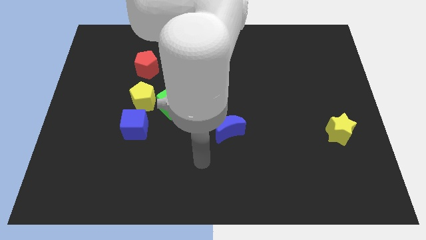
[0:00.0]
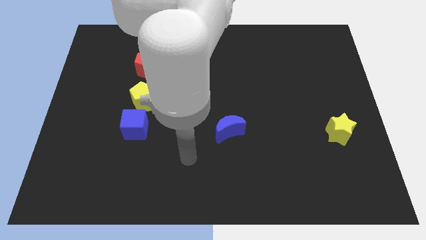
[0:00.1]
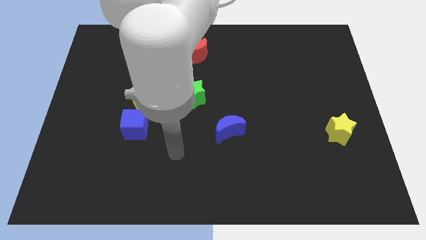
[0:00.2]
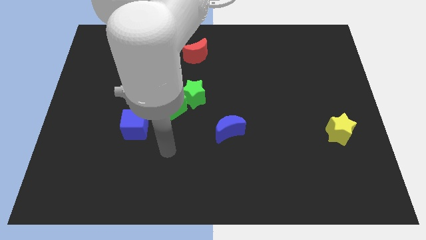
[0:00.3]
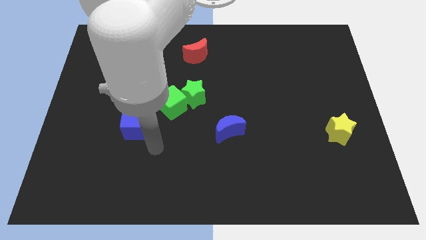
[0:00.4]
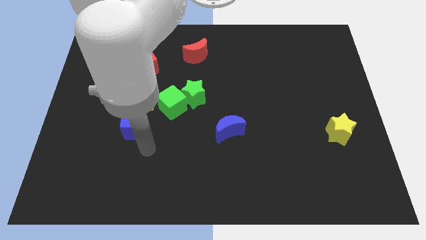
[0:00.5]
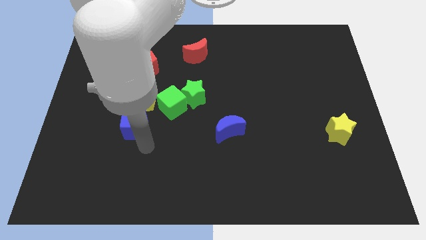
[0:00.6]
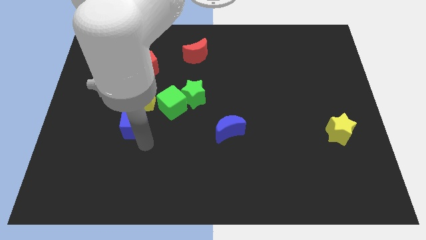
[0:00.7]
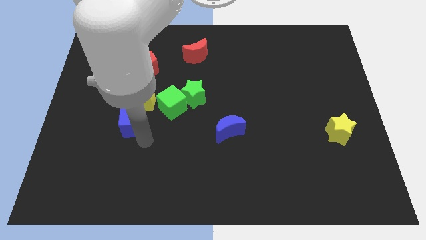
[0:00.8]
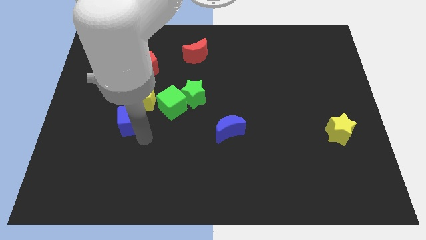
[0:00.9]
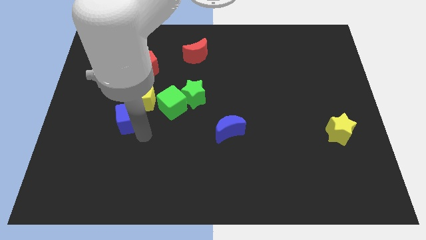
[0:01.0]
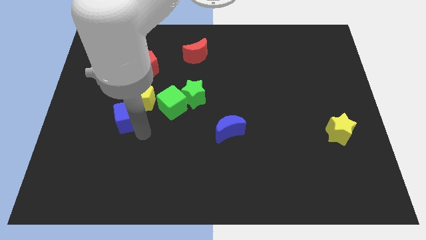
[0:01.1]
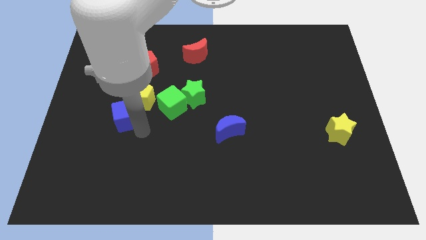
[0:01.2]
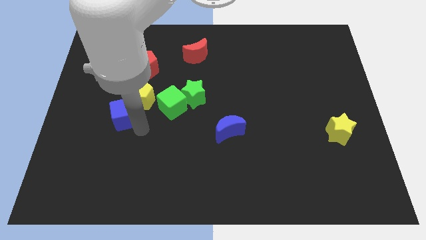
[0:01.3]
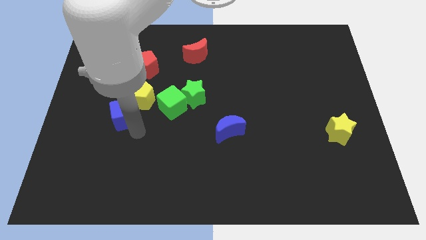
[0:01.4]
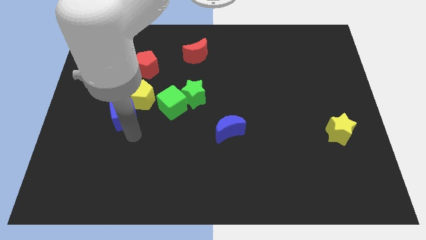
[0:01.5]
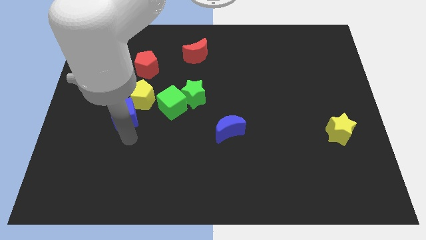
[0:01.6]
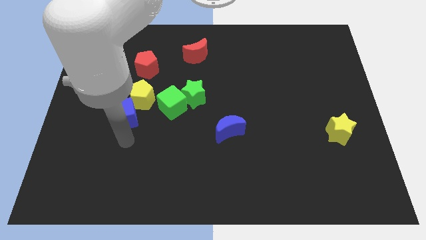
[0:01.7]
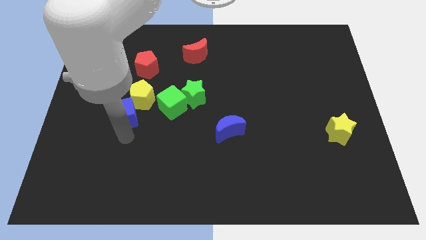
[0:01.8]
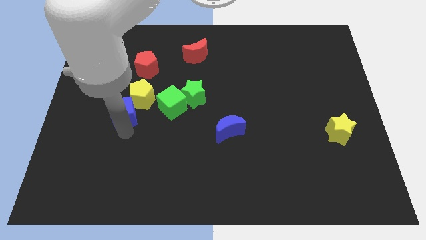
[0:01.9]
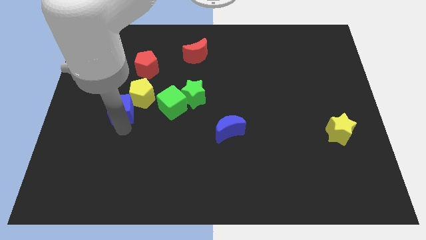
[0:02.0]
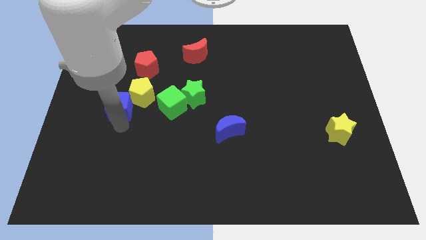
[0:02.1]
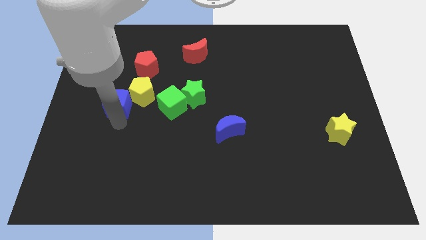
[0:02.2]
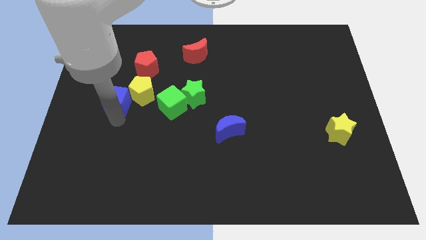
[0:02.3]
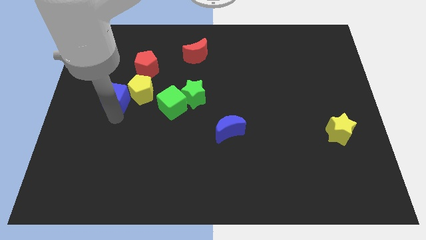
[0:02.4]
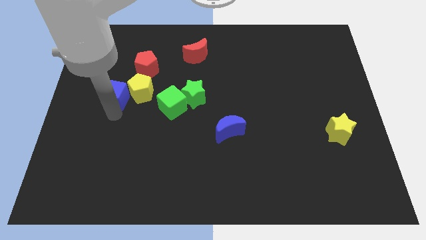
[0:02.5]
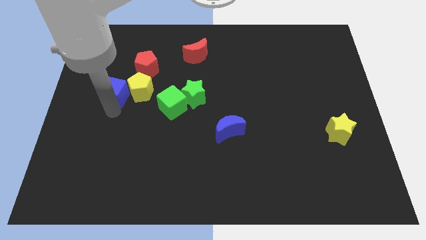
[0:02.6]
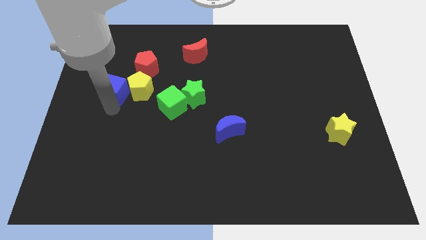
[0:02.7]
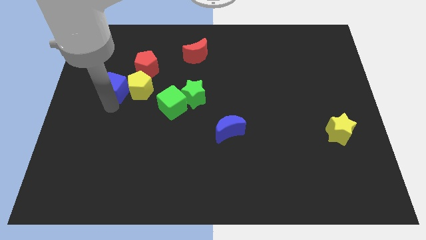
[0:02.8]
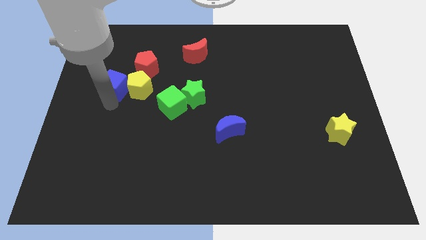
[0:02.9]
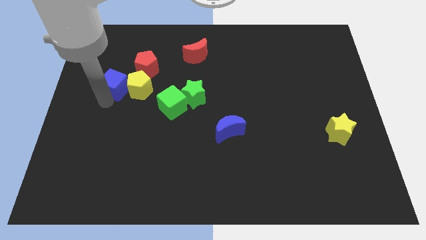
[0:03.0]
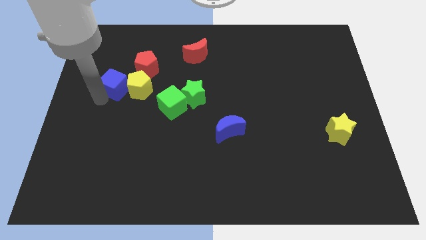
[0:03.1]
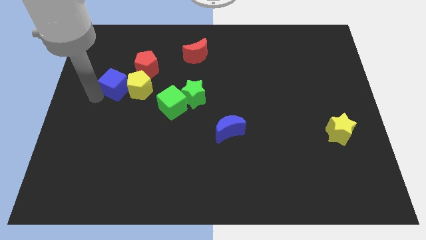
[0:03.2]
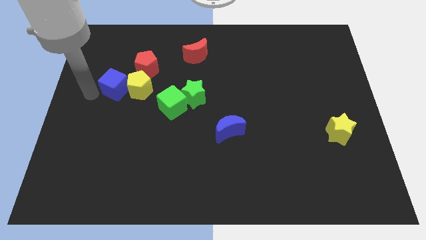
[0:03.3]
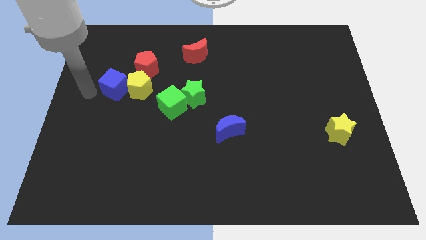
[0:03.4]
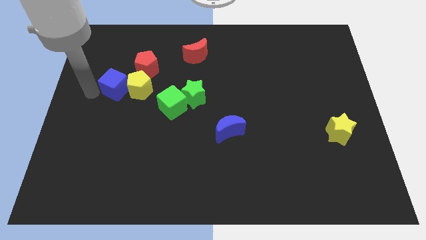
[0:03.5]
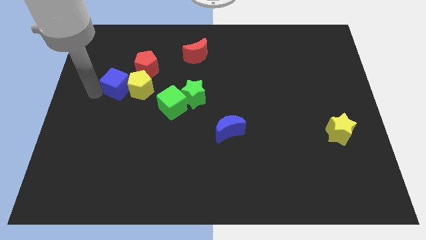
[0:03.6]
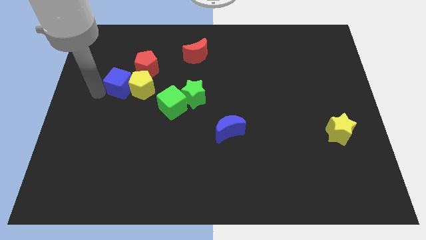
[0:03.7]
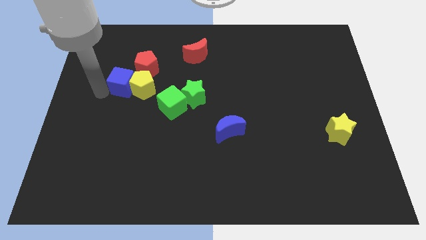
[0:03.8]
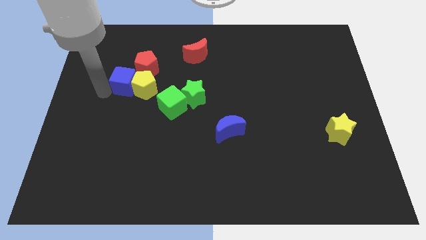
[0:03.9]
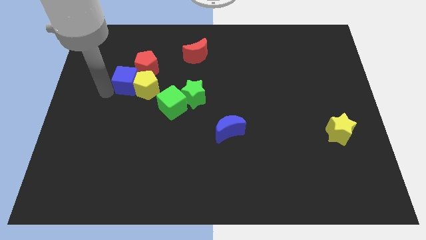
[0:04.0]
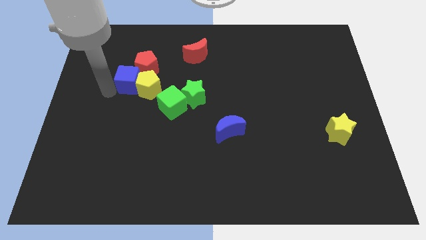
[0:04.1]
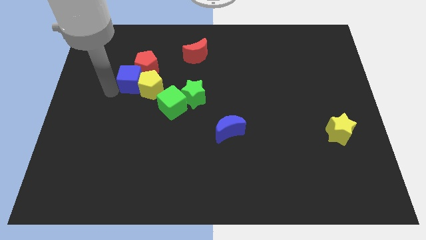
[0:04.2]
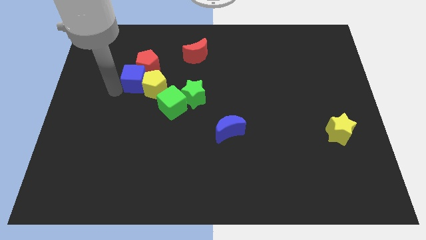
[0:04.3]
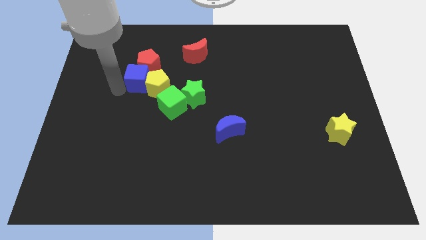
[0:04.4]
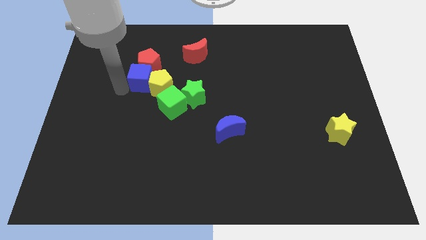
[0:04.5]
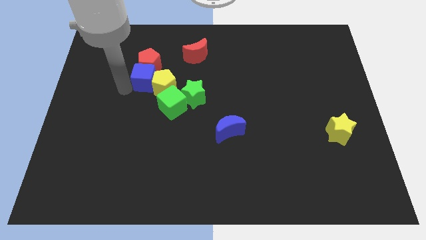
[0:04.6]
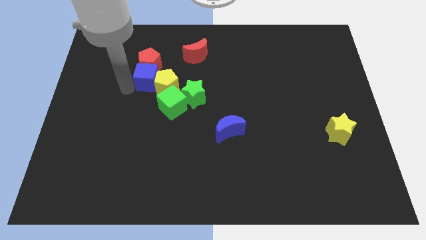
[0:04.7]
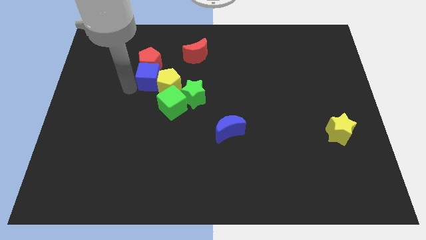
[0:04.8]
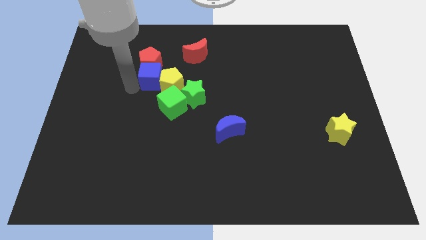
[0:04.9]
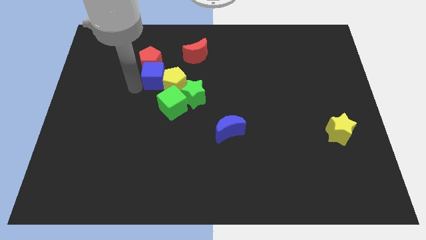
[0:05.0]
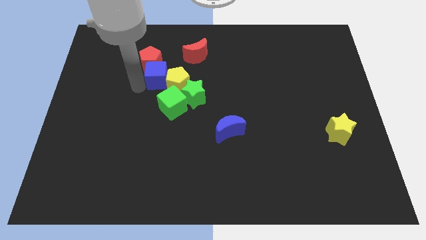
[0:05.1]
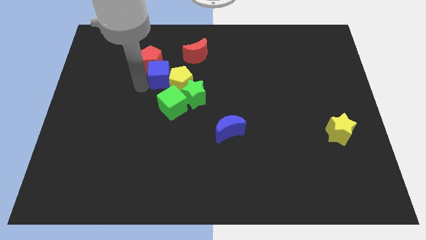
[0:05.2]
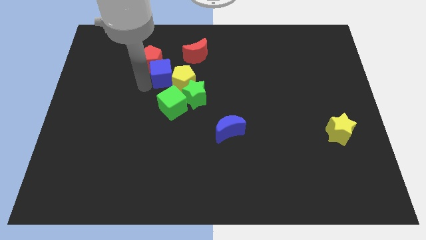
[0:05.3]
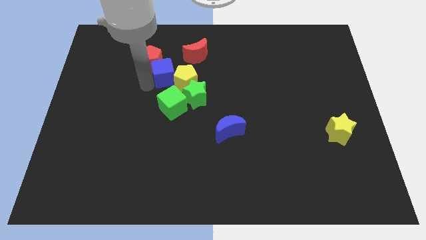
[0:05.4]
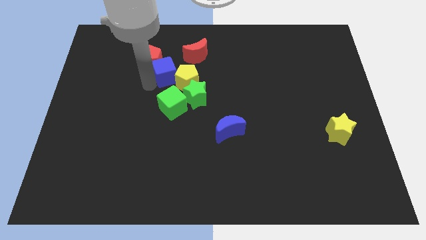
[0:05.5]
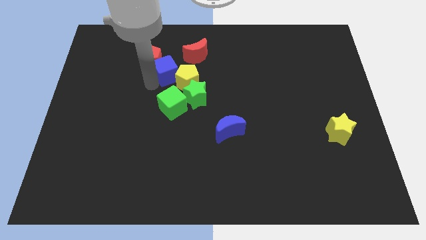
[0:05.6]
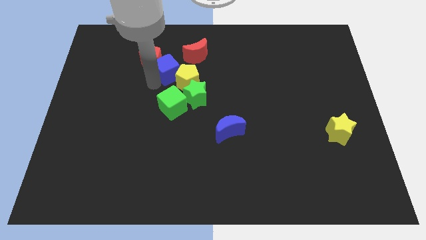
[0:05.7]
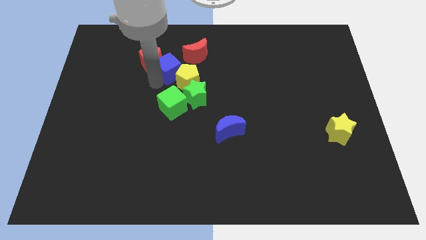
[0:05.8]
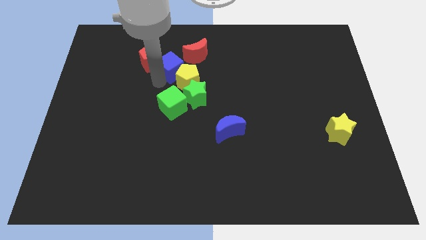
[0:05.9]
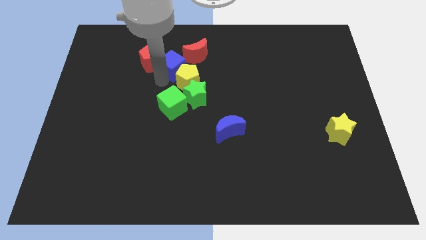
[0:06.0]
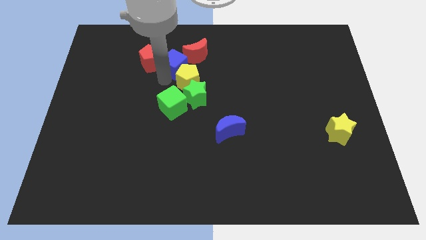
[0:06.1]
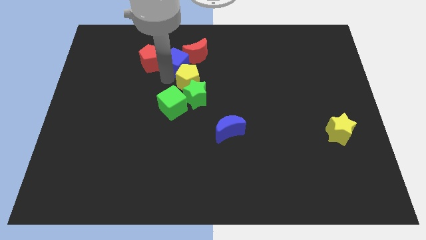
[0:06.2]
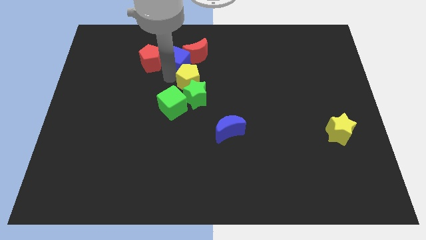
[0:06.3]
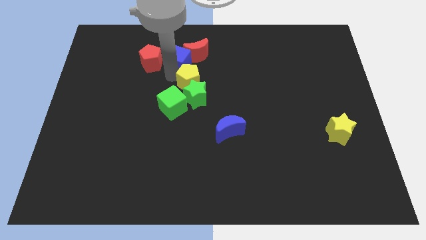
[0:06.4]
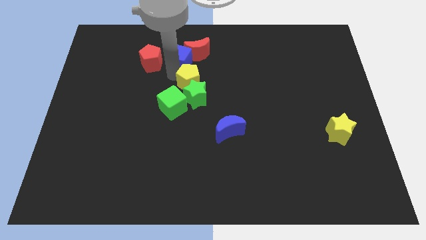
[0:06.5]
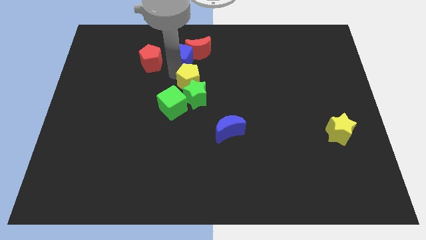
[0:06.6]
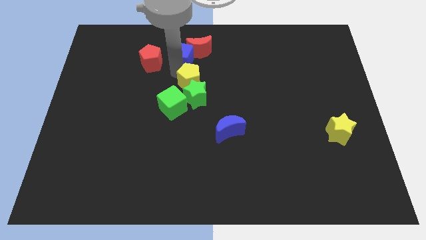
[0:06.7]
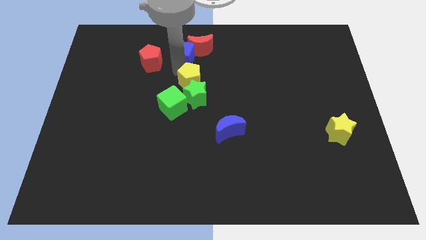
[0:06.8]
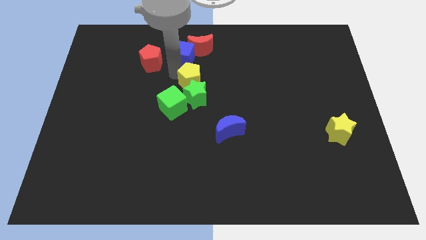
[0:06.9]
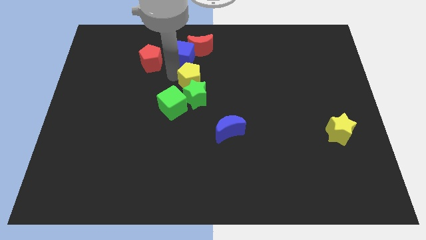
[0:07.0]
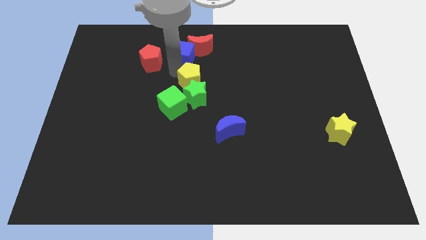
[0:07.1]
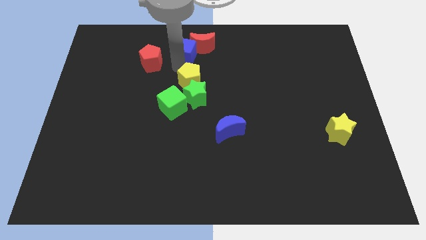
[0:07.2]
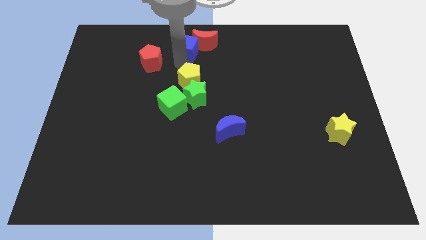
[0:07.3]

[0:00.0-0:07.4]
move the blue cube to the top side
